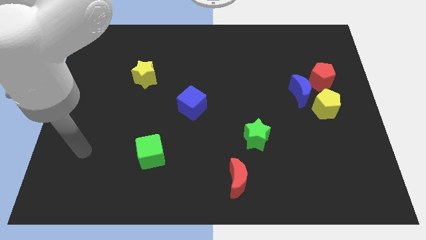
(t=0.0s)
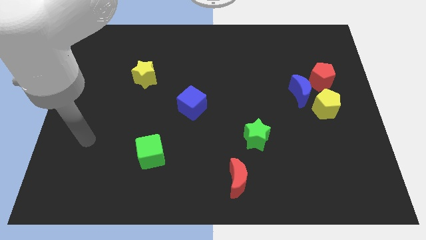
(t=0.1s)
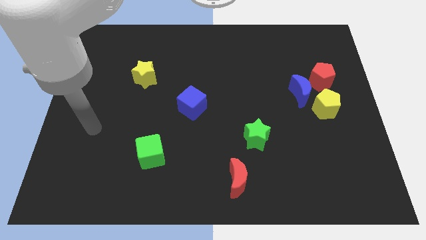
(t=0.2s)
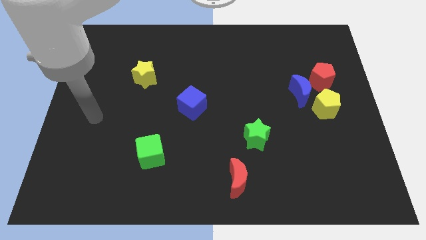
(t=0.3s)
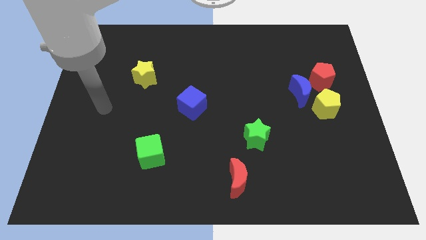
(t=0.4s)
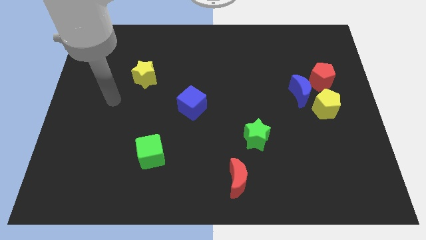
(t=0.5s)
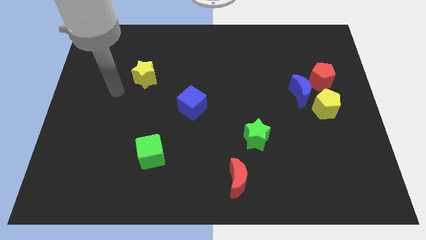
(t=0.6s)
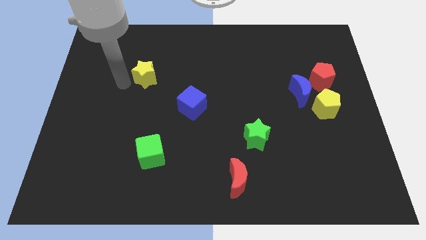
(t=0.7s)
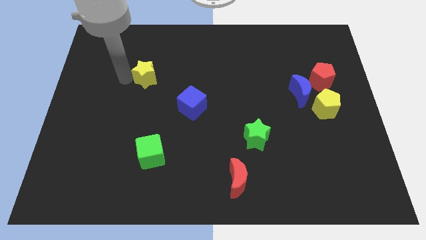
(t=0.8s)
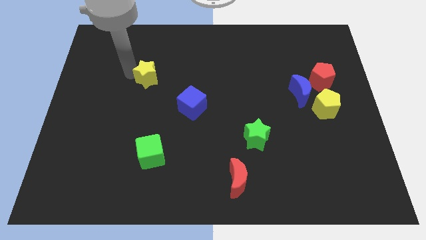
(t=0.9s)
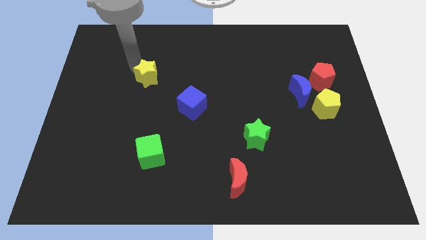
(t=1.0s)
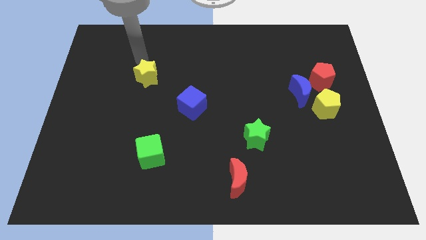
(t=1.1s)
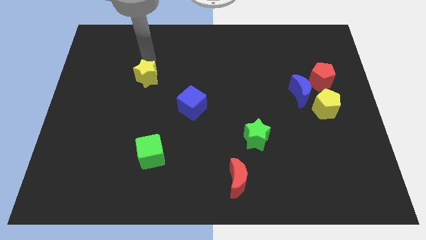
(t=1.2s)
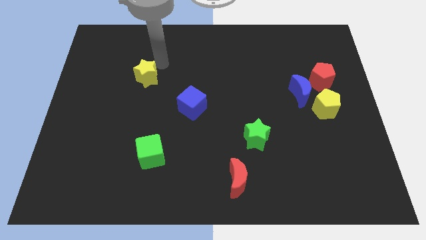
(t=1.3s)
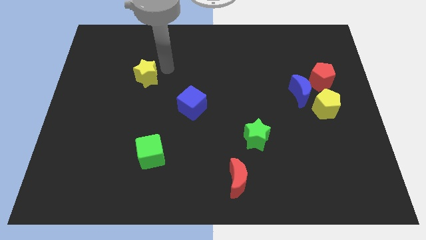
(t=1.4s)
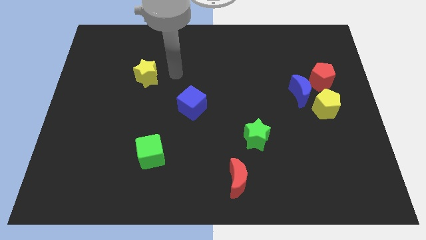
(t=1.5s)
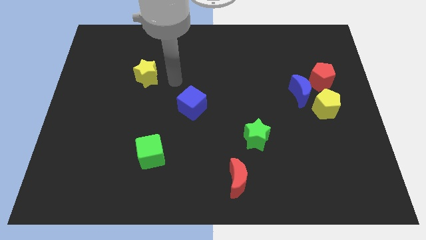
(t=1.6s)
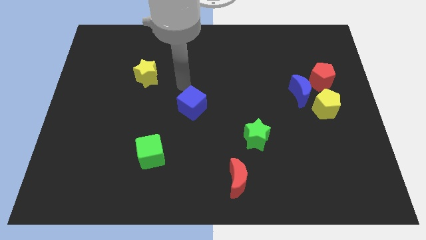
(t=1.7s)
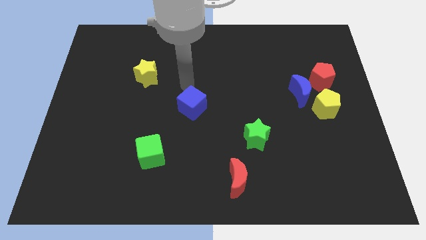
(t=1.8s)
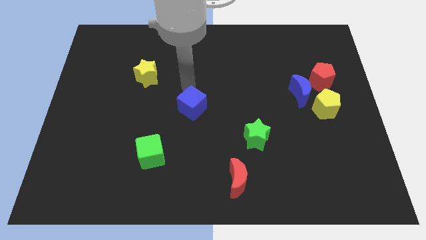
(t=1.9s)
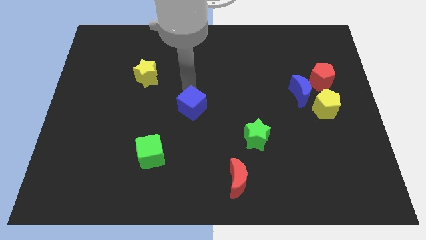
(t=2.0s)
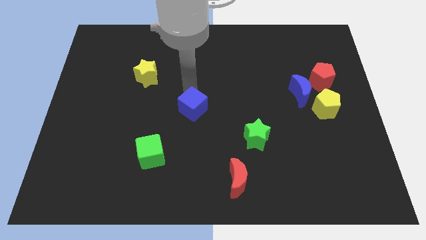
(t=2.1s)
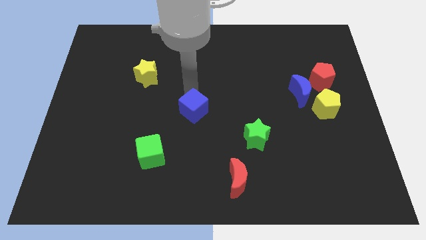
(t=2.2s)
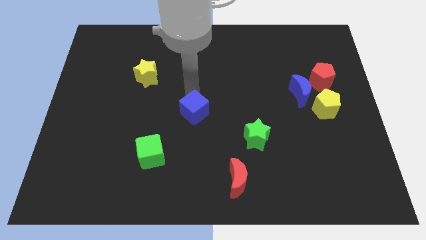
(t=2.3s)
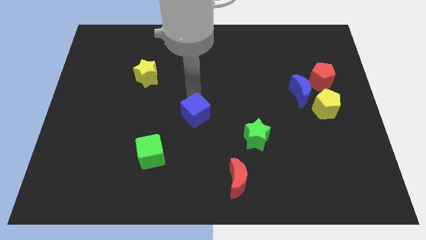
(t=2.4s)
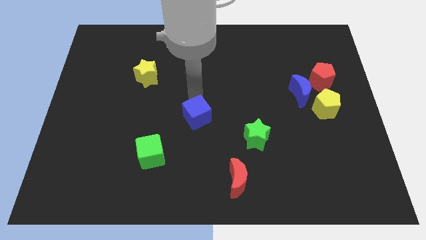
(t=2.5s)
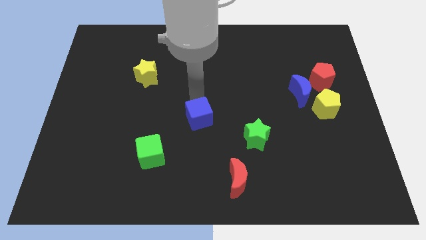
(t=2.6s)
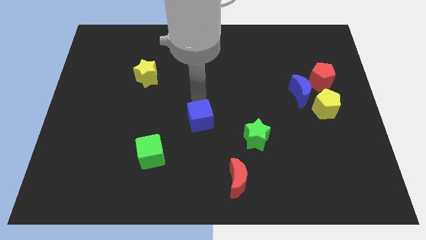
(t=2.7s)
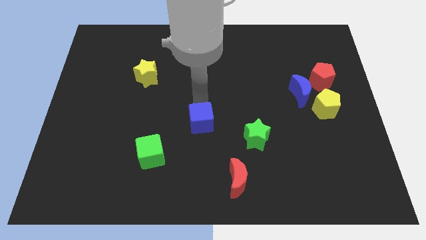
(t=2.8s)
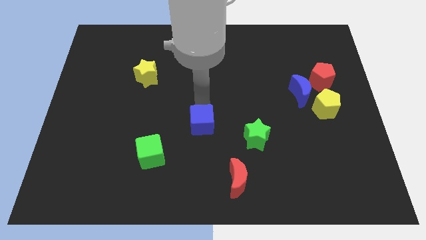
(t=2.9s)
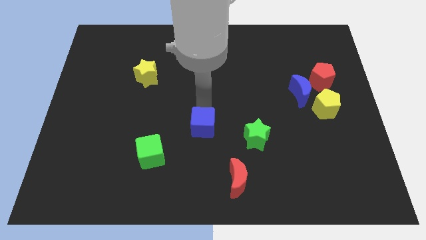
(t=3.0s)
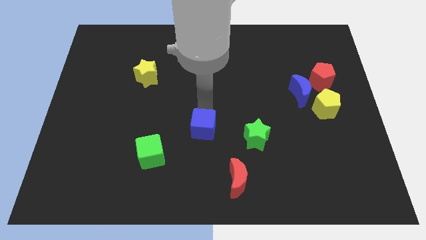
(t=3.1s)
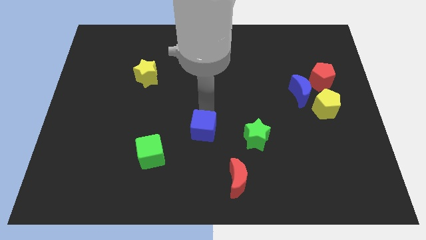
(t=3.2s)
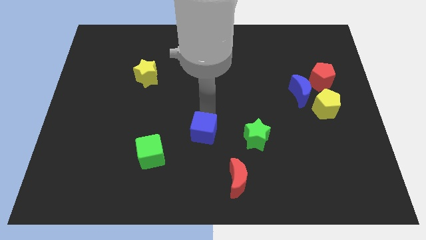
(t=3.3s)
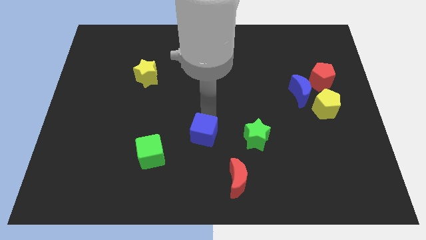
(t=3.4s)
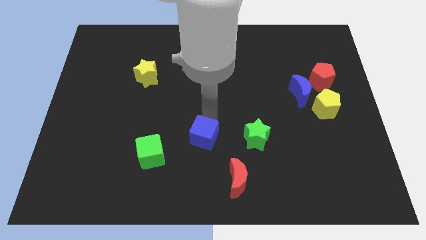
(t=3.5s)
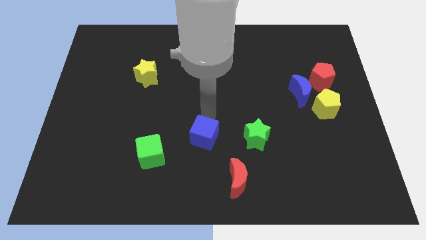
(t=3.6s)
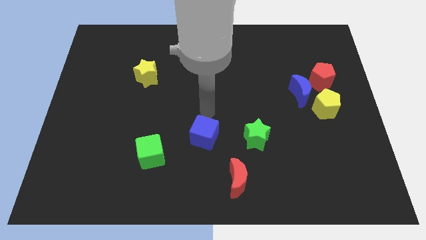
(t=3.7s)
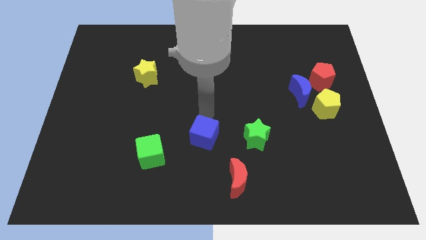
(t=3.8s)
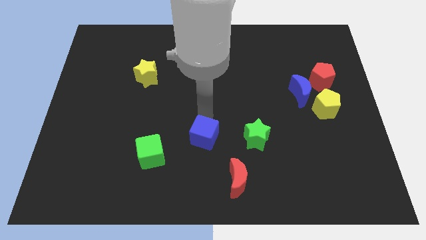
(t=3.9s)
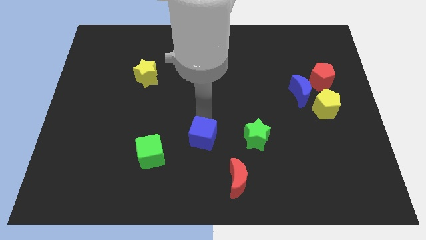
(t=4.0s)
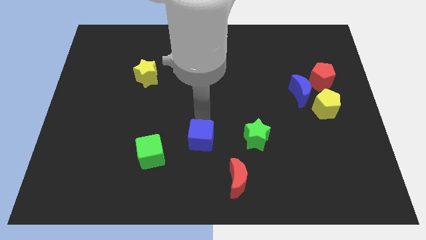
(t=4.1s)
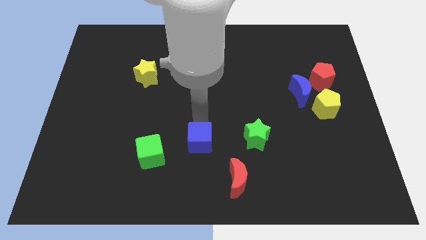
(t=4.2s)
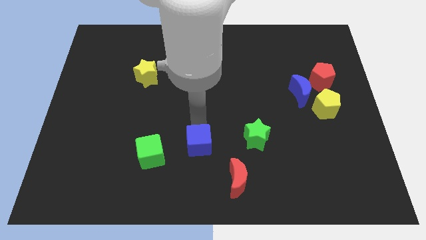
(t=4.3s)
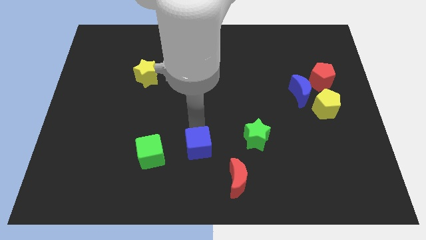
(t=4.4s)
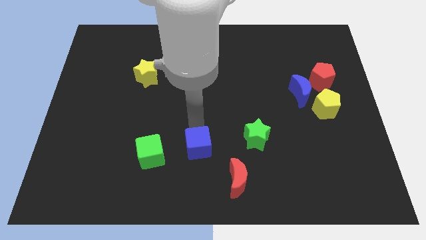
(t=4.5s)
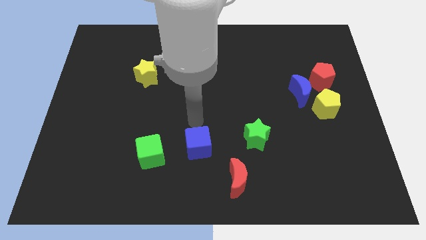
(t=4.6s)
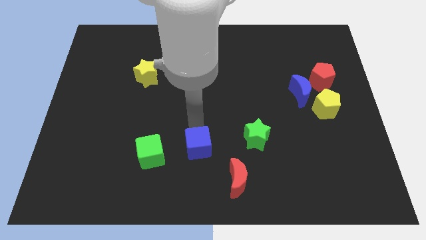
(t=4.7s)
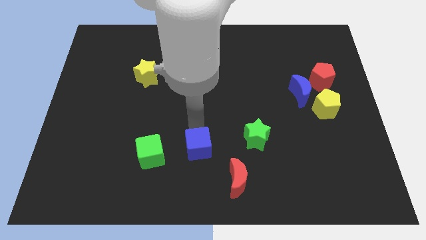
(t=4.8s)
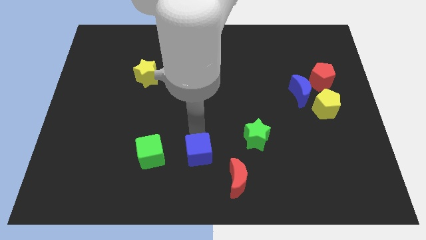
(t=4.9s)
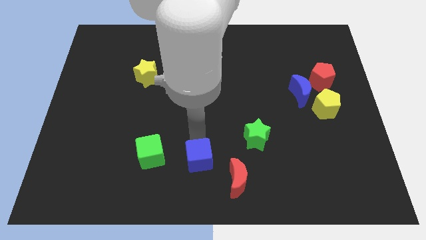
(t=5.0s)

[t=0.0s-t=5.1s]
put the blue cube to the bottom

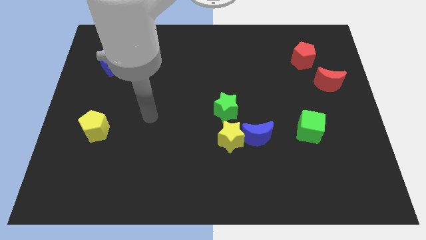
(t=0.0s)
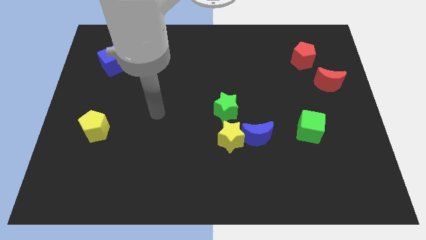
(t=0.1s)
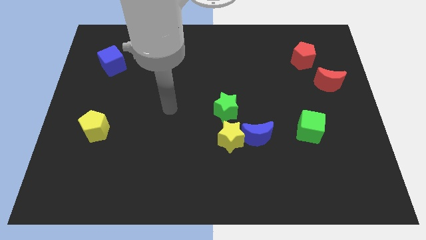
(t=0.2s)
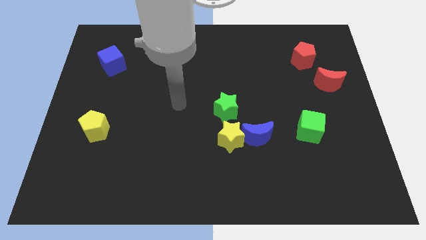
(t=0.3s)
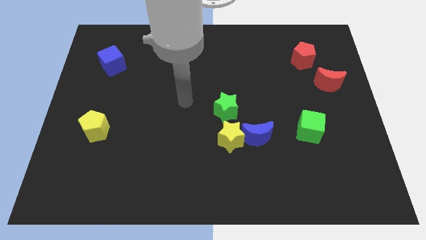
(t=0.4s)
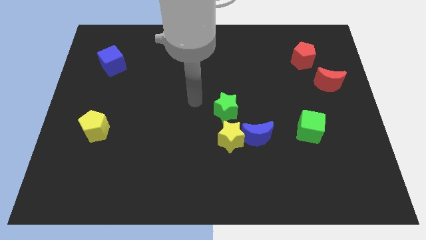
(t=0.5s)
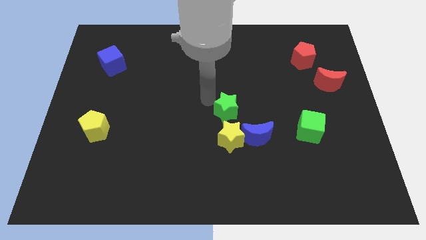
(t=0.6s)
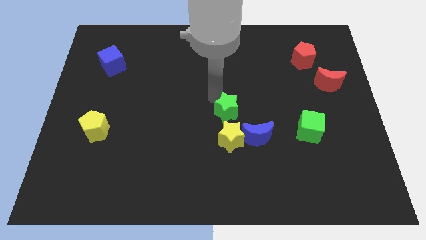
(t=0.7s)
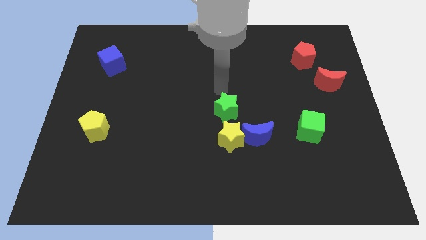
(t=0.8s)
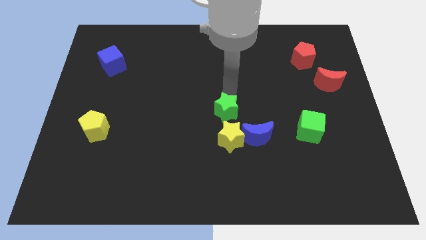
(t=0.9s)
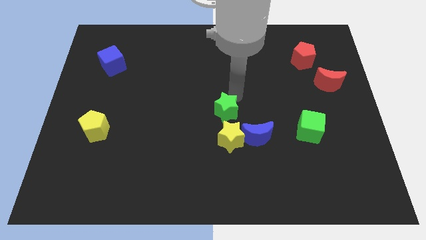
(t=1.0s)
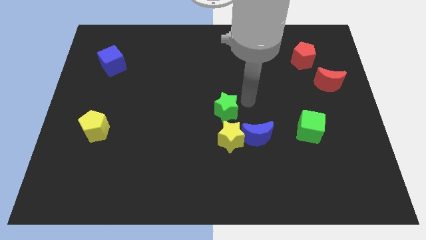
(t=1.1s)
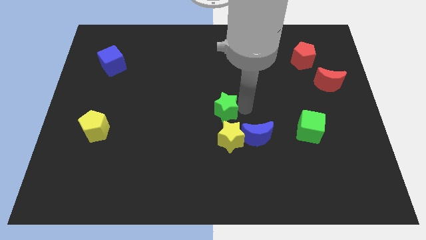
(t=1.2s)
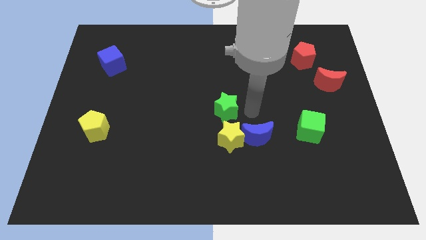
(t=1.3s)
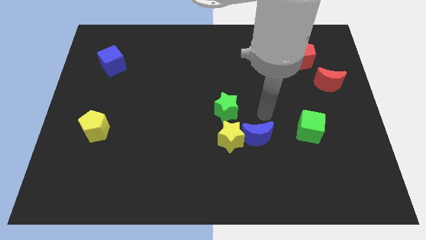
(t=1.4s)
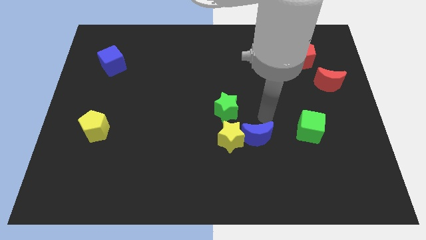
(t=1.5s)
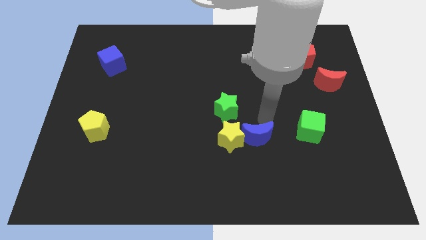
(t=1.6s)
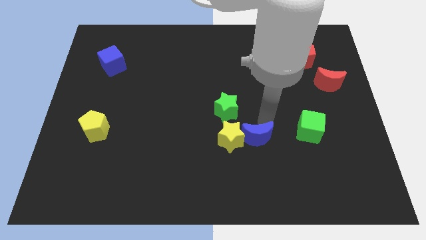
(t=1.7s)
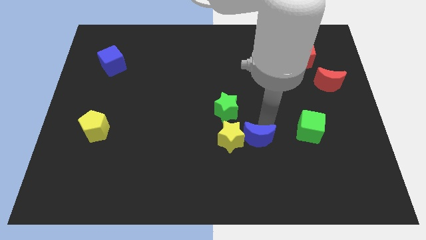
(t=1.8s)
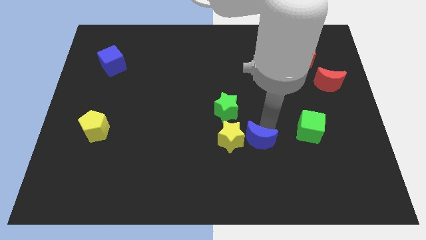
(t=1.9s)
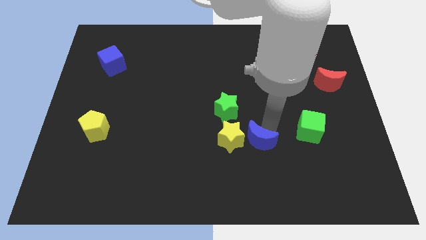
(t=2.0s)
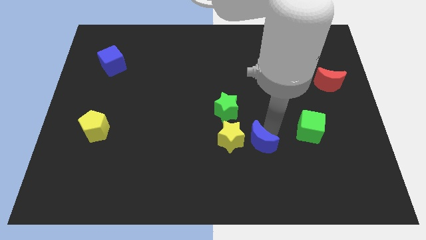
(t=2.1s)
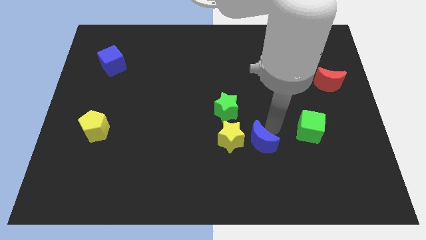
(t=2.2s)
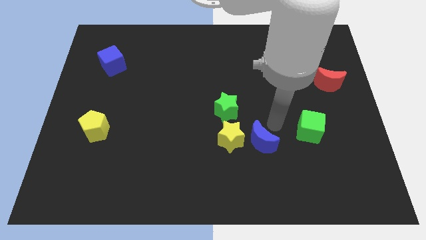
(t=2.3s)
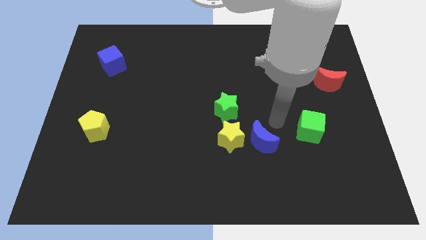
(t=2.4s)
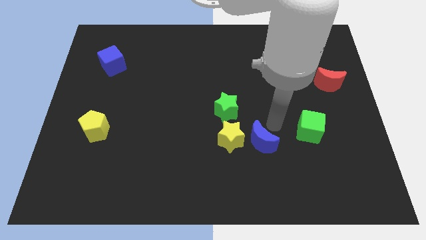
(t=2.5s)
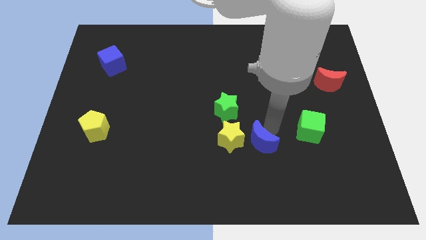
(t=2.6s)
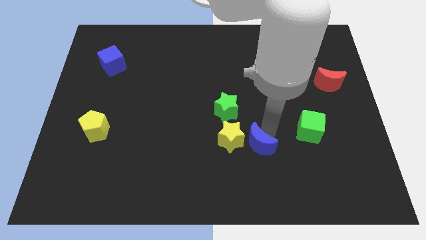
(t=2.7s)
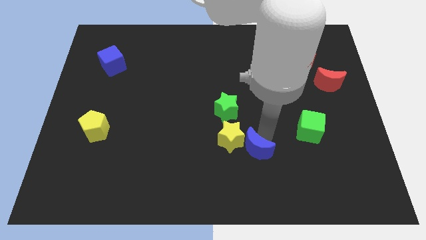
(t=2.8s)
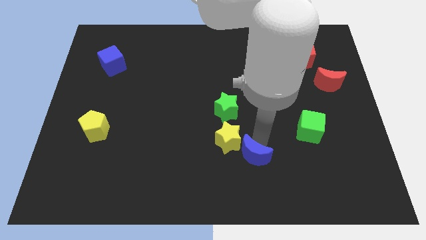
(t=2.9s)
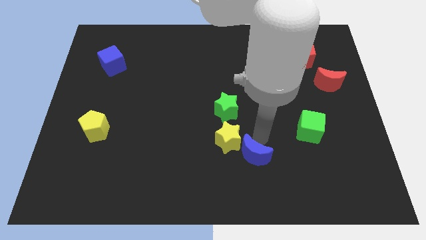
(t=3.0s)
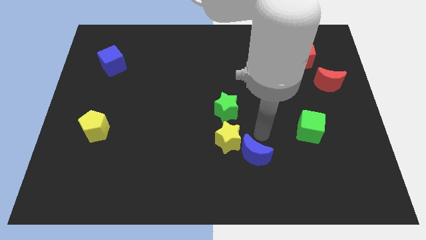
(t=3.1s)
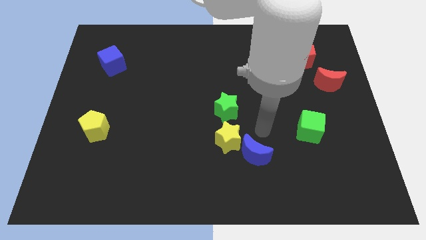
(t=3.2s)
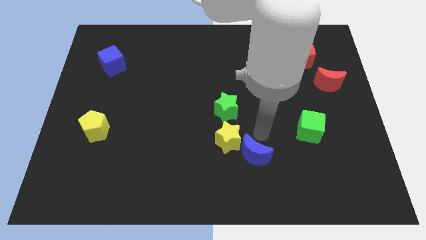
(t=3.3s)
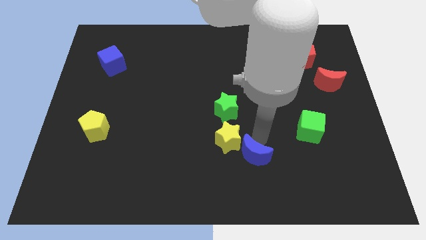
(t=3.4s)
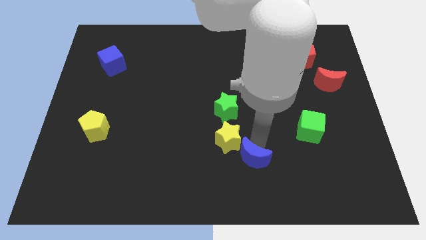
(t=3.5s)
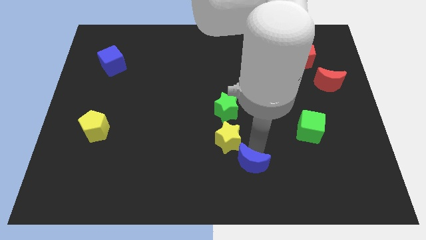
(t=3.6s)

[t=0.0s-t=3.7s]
put the blue moon to the bottom side
